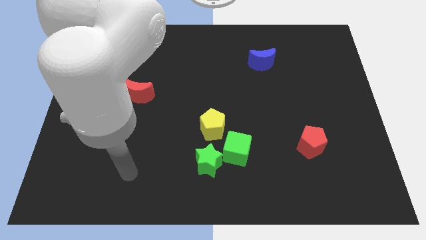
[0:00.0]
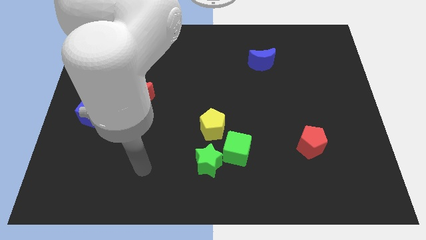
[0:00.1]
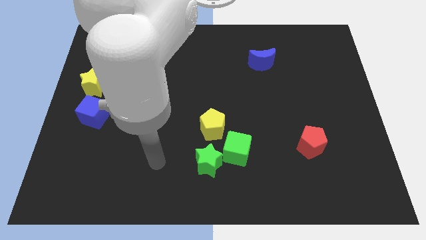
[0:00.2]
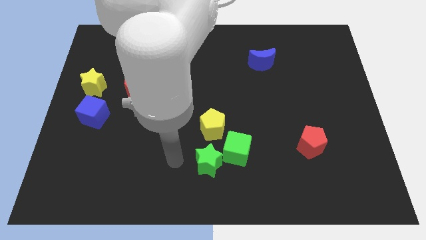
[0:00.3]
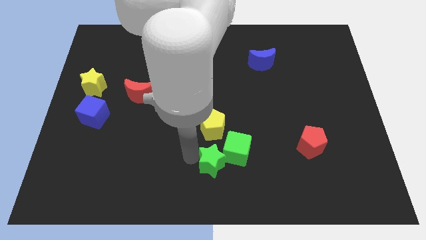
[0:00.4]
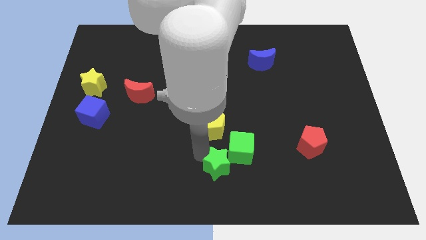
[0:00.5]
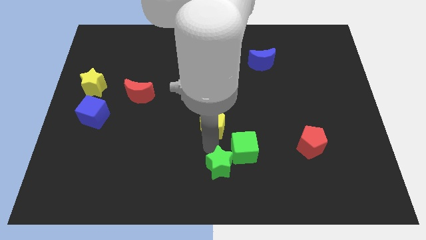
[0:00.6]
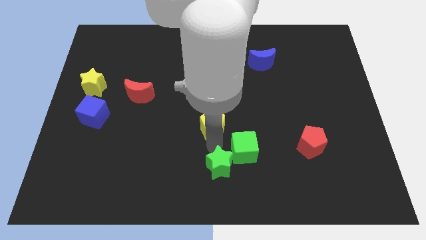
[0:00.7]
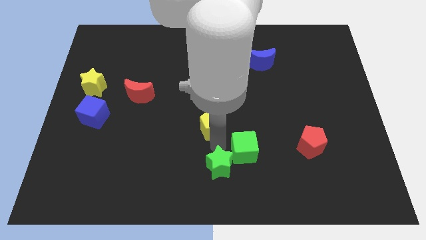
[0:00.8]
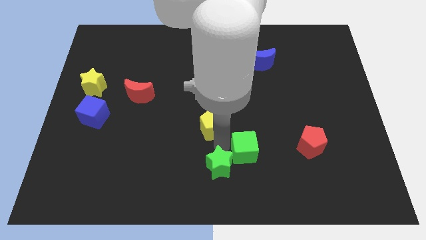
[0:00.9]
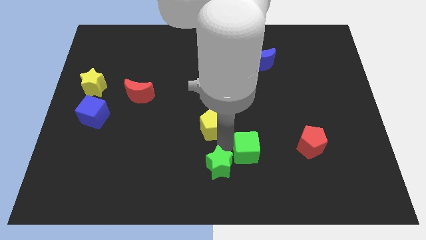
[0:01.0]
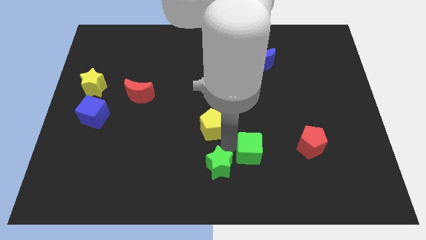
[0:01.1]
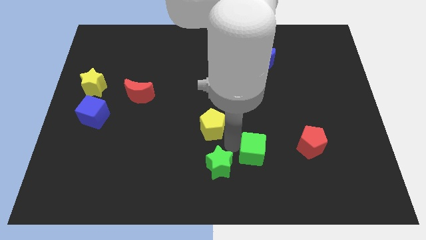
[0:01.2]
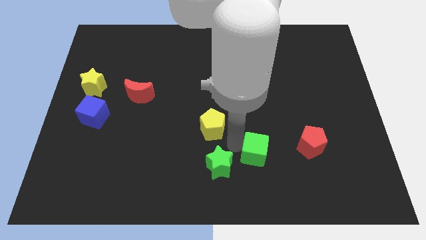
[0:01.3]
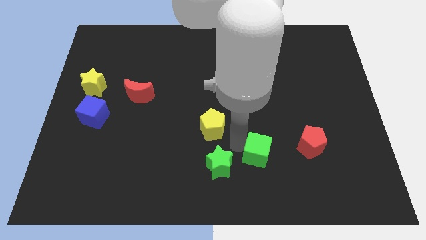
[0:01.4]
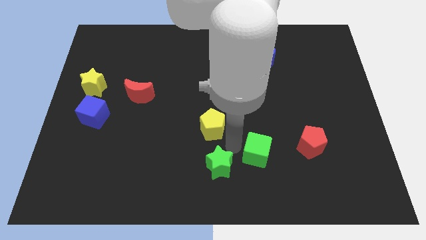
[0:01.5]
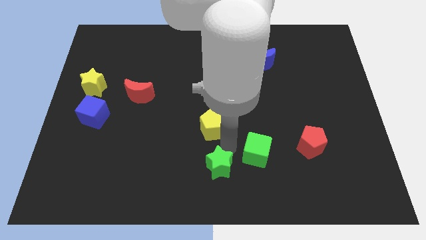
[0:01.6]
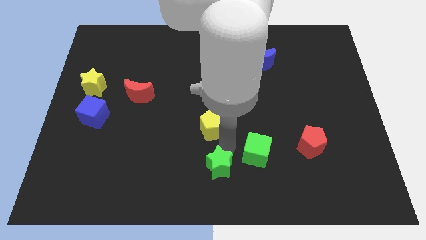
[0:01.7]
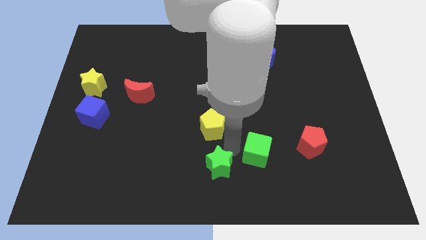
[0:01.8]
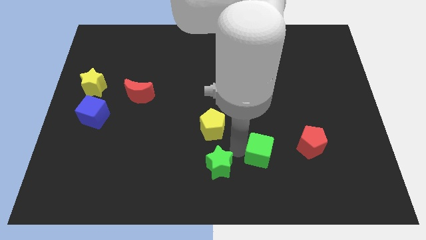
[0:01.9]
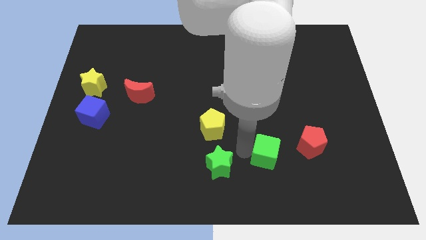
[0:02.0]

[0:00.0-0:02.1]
pull the green cube apart from the green star and yellow pentagon

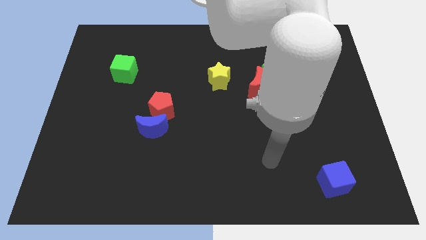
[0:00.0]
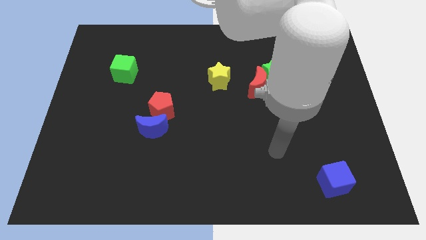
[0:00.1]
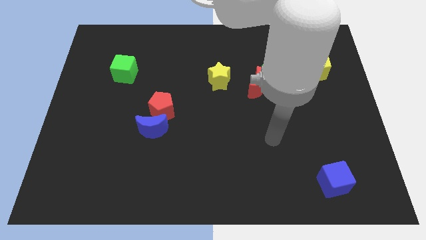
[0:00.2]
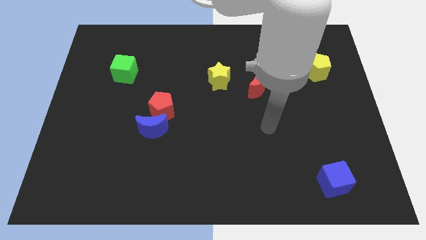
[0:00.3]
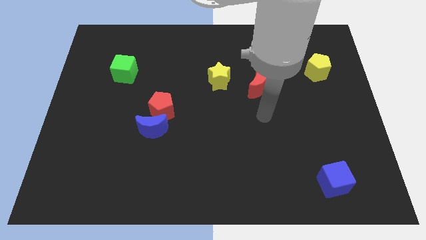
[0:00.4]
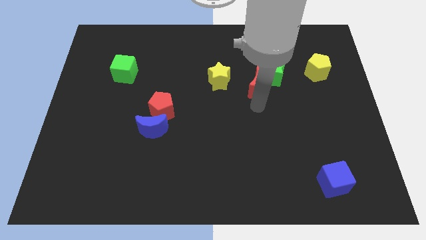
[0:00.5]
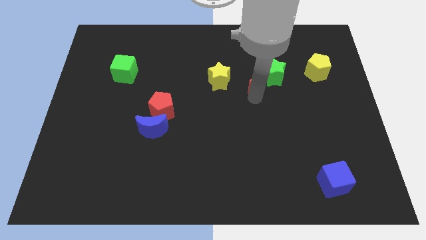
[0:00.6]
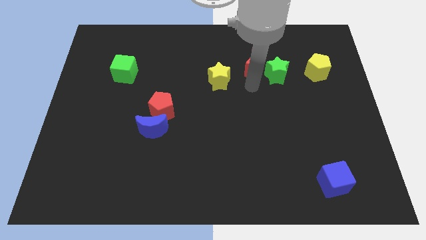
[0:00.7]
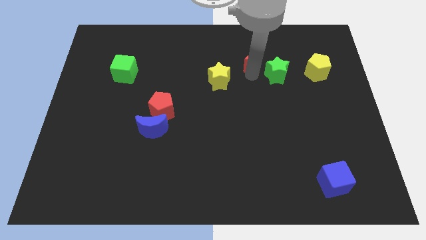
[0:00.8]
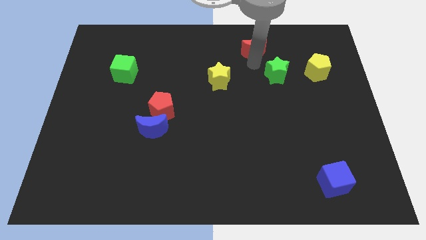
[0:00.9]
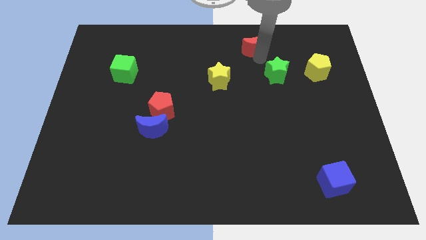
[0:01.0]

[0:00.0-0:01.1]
pull the green star apart from the red moon

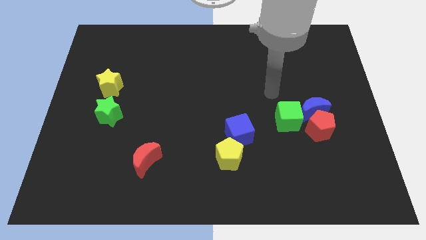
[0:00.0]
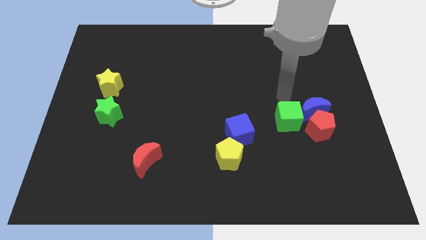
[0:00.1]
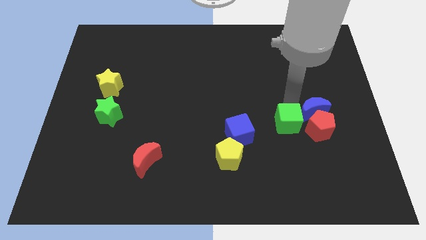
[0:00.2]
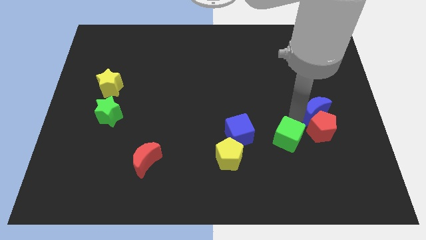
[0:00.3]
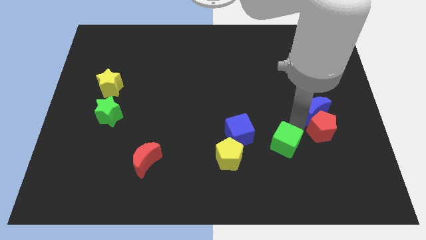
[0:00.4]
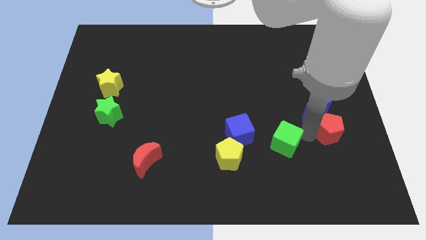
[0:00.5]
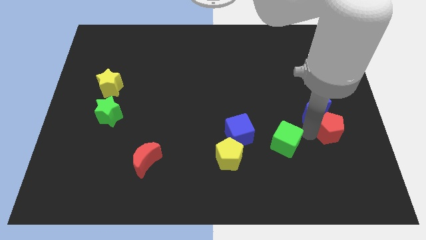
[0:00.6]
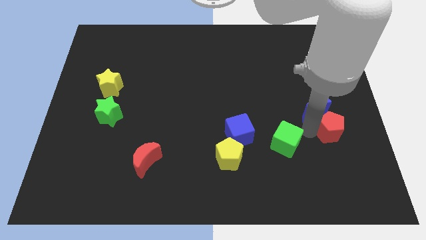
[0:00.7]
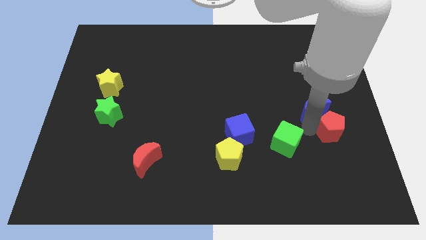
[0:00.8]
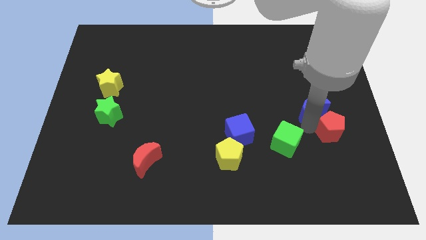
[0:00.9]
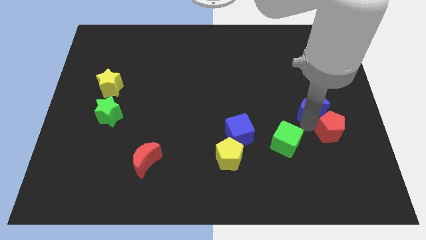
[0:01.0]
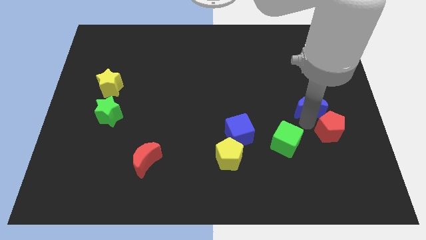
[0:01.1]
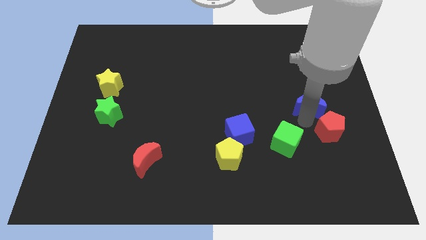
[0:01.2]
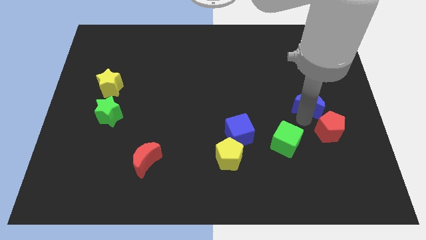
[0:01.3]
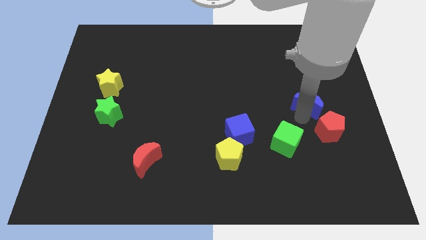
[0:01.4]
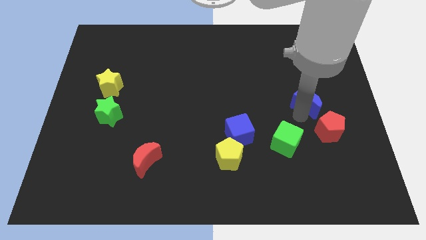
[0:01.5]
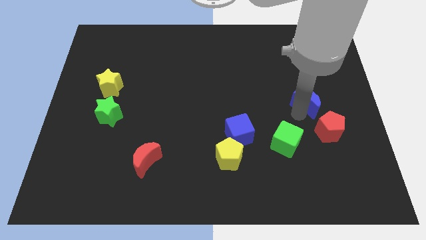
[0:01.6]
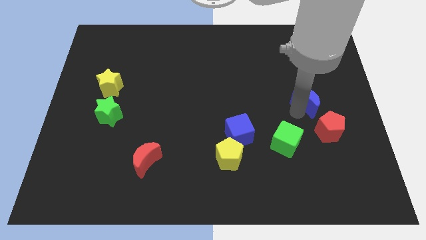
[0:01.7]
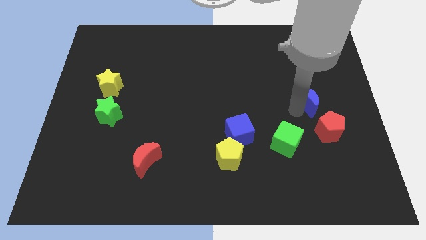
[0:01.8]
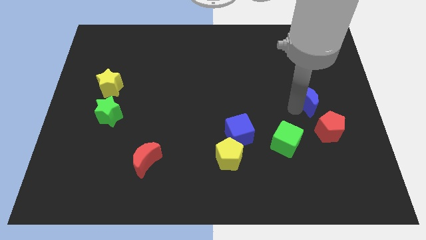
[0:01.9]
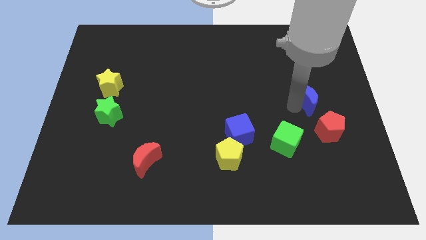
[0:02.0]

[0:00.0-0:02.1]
pull the blue moon apart from the red pentagon and green cube

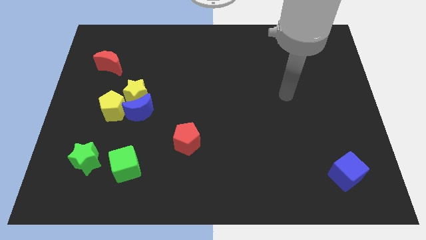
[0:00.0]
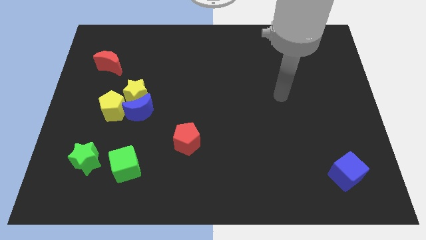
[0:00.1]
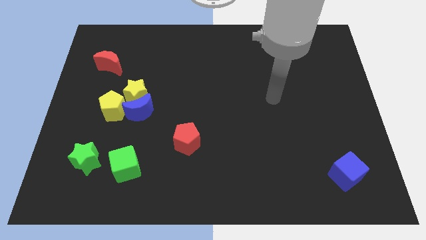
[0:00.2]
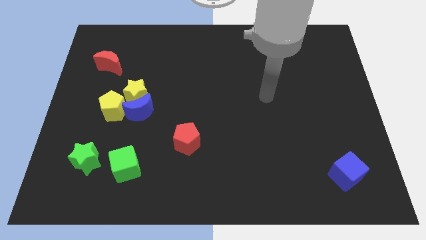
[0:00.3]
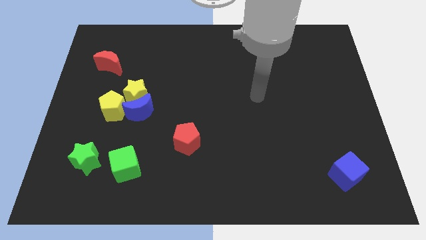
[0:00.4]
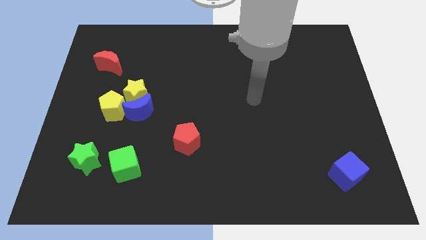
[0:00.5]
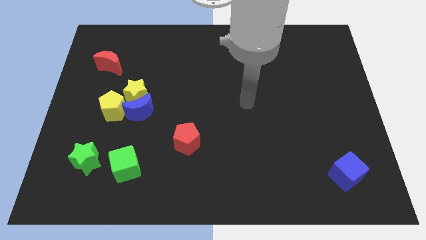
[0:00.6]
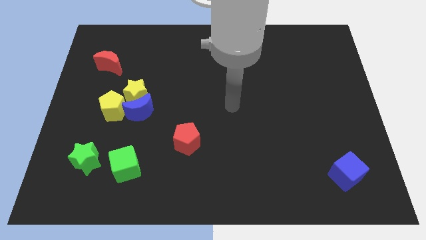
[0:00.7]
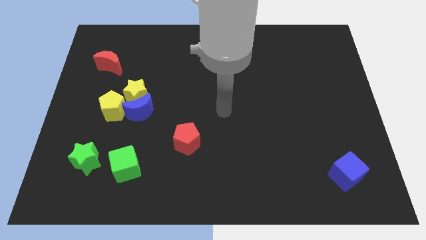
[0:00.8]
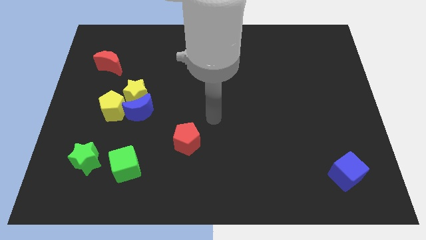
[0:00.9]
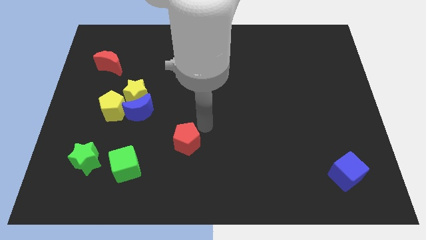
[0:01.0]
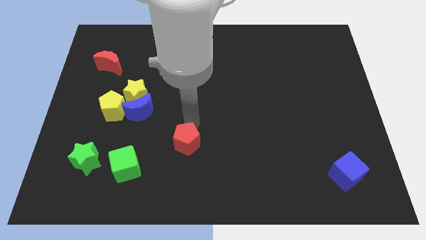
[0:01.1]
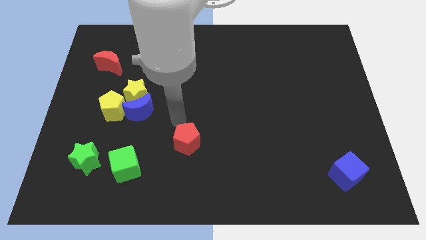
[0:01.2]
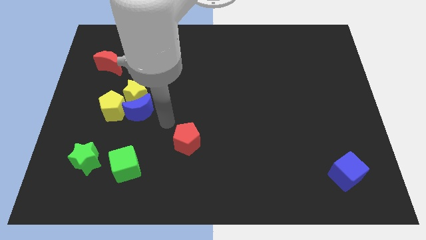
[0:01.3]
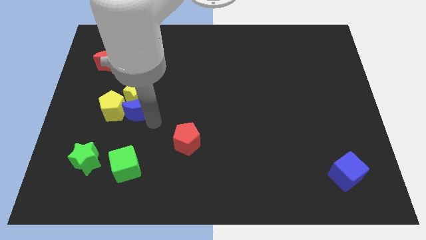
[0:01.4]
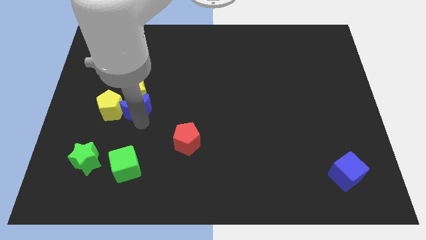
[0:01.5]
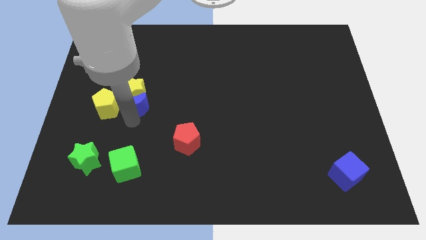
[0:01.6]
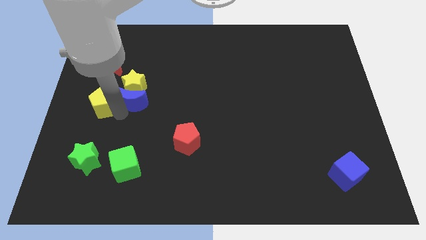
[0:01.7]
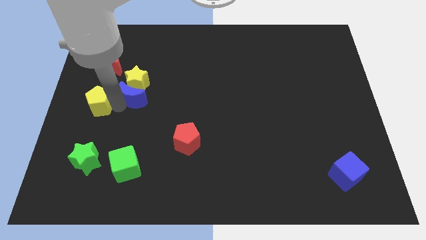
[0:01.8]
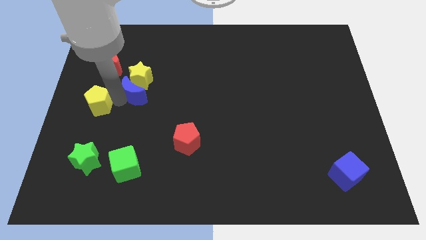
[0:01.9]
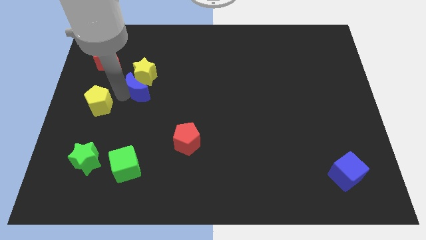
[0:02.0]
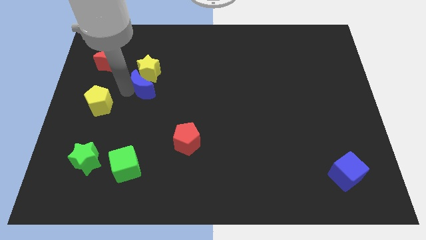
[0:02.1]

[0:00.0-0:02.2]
move the yellow star away from the blue moon and yellow pentagon

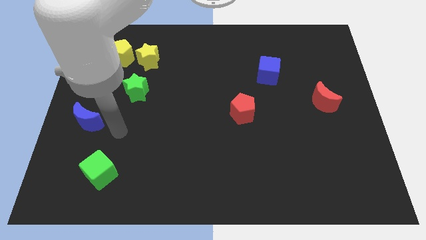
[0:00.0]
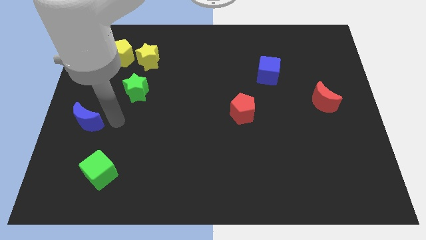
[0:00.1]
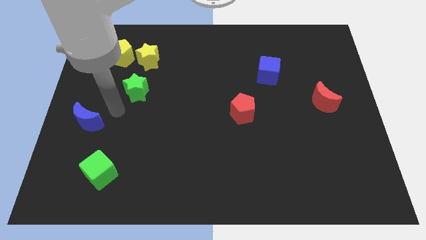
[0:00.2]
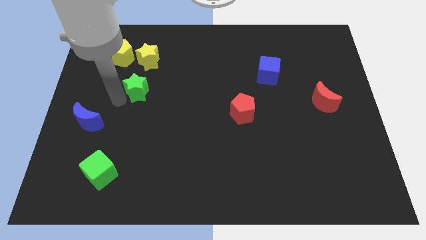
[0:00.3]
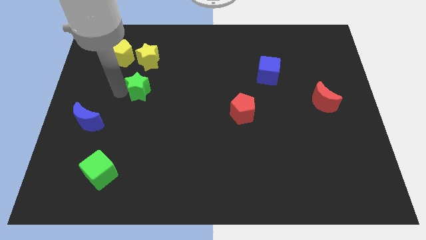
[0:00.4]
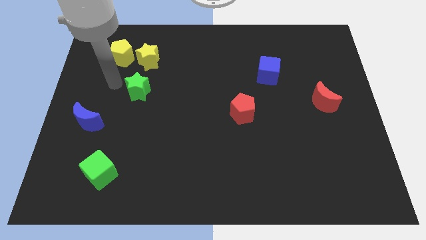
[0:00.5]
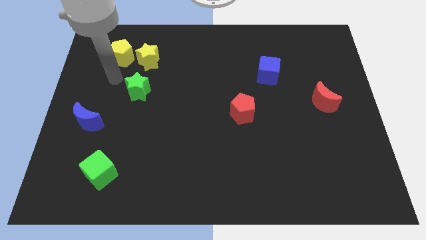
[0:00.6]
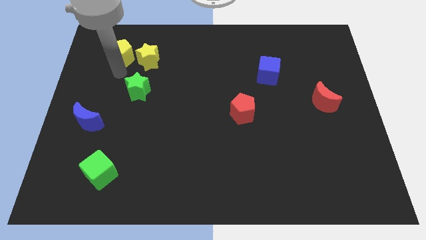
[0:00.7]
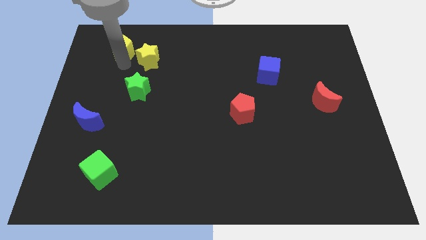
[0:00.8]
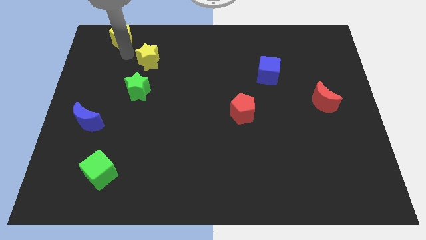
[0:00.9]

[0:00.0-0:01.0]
separate the yellow star from the yellow pentagon

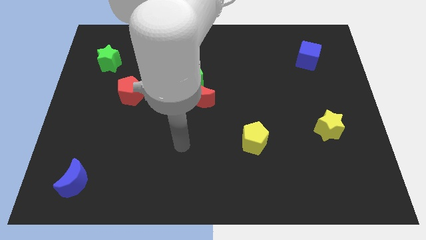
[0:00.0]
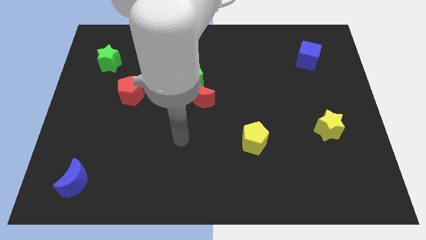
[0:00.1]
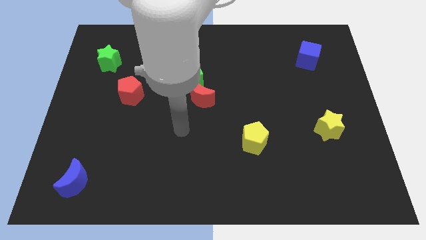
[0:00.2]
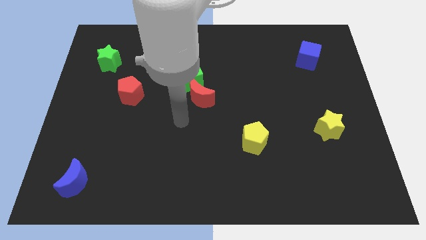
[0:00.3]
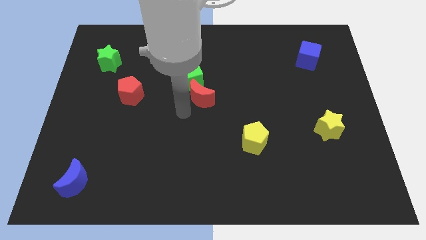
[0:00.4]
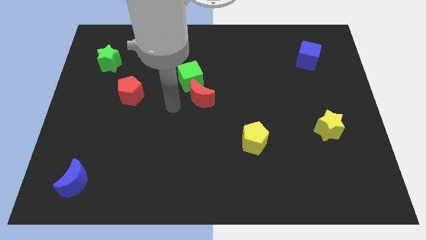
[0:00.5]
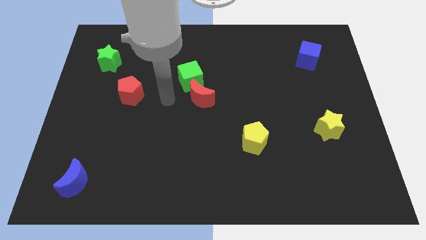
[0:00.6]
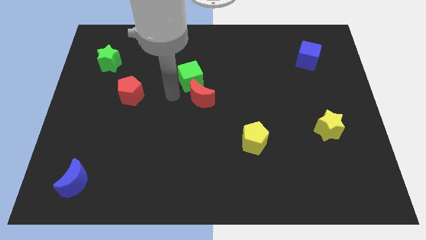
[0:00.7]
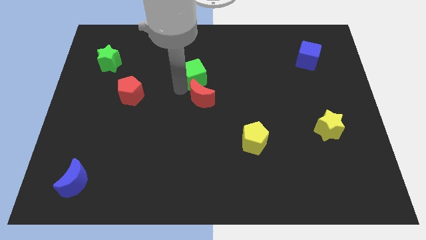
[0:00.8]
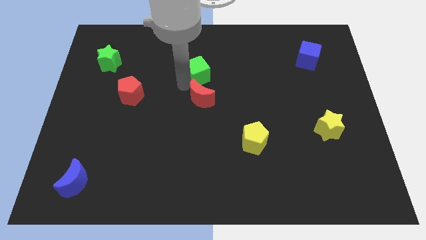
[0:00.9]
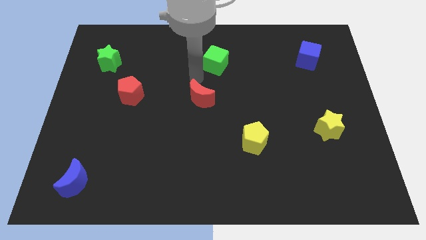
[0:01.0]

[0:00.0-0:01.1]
separate the red moon from the green cube
